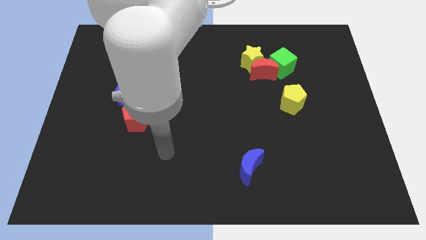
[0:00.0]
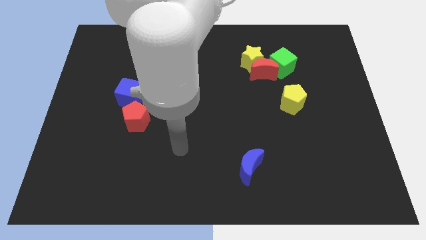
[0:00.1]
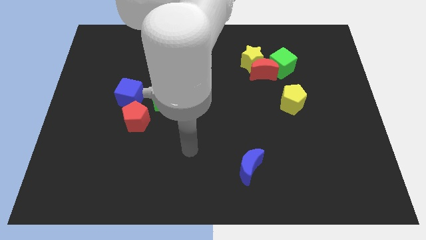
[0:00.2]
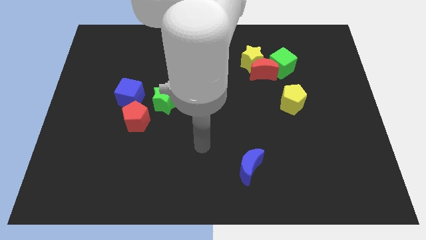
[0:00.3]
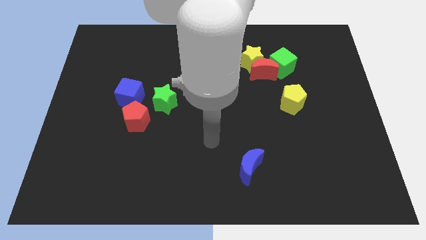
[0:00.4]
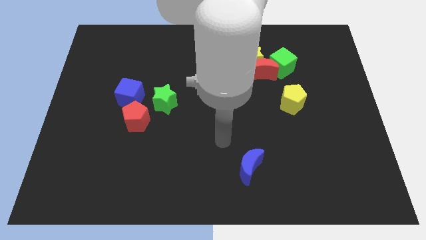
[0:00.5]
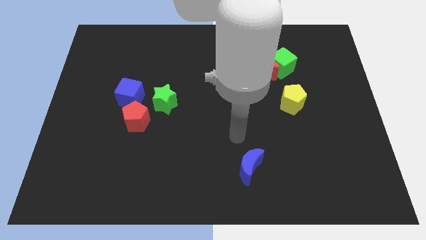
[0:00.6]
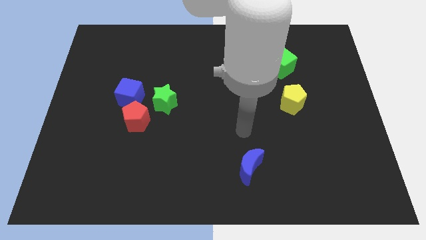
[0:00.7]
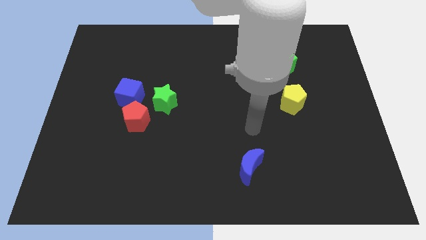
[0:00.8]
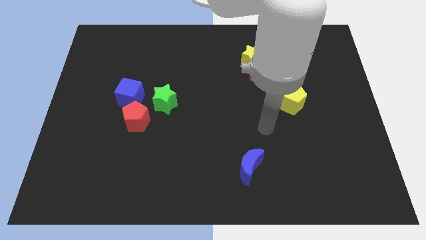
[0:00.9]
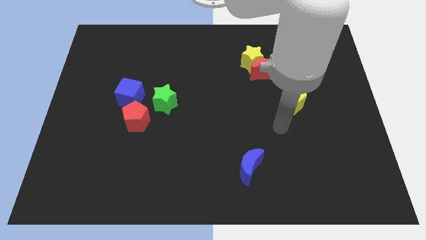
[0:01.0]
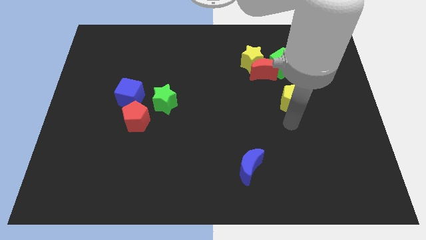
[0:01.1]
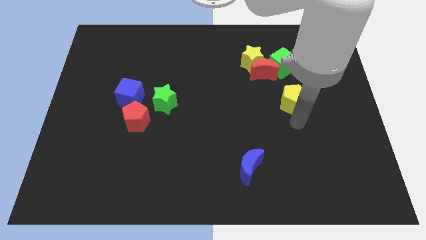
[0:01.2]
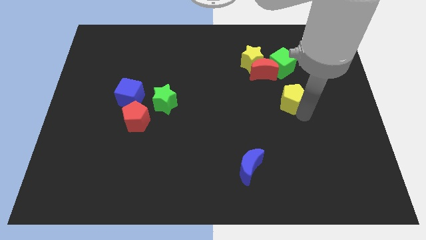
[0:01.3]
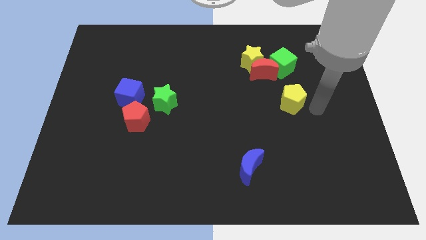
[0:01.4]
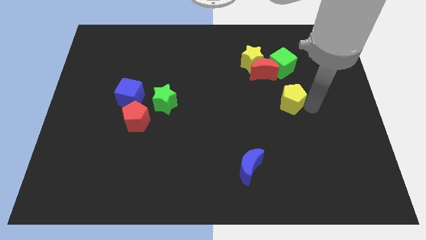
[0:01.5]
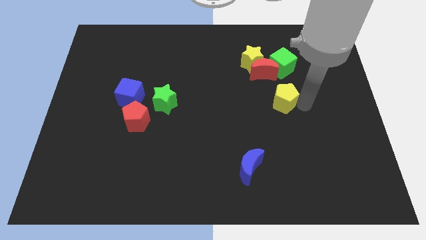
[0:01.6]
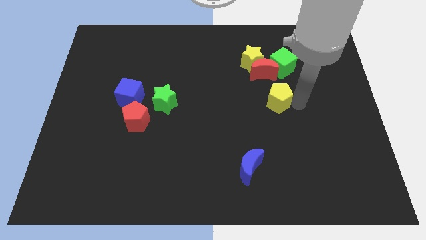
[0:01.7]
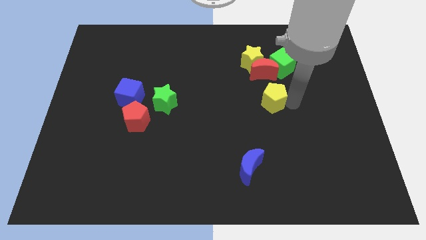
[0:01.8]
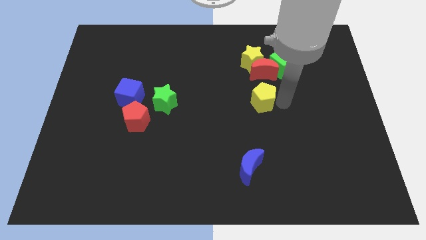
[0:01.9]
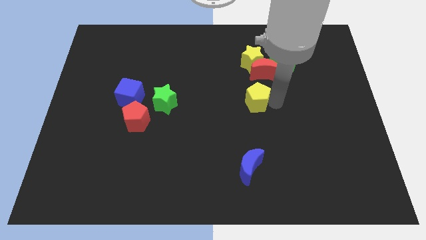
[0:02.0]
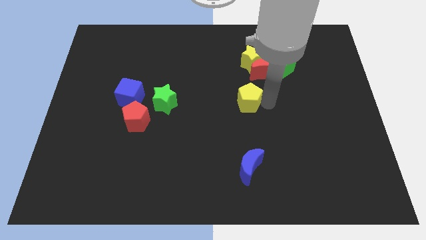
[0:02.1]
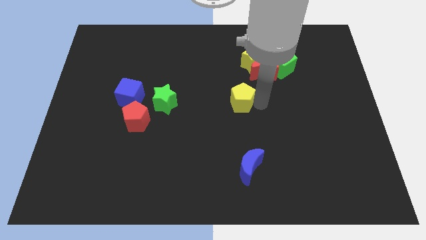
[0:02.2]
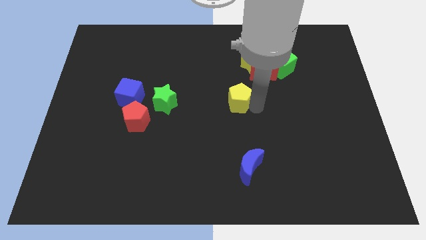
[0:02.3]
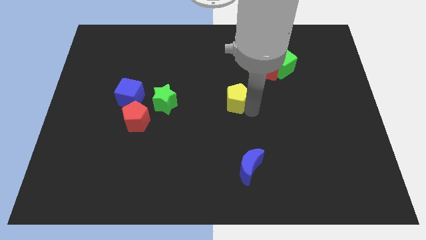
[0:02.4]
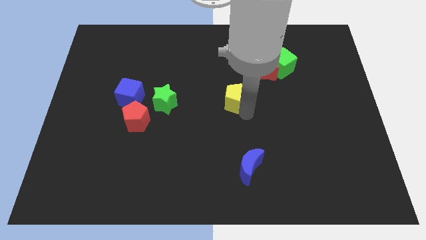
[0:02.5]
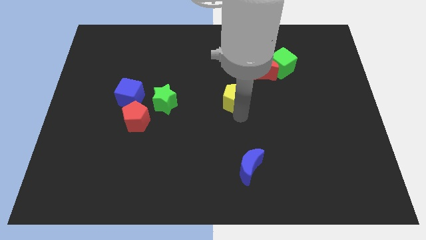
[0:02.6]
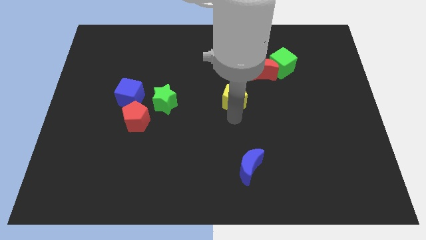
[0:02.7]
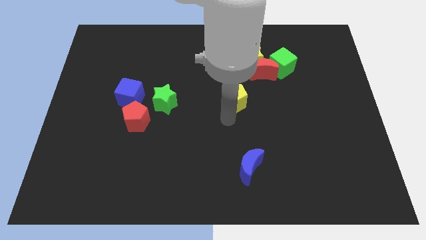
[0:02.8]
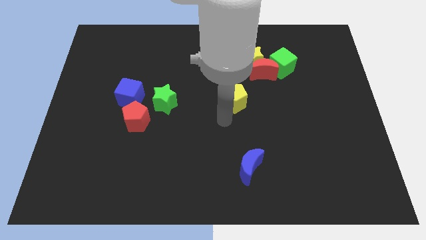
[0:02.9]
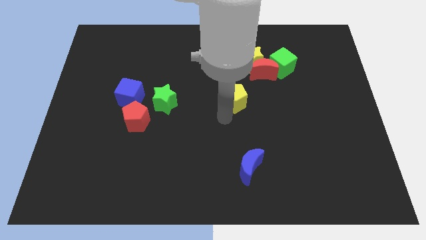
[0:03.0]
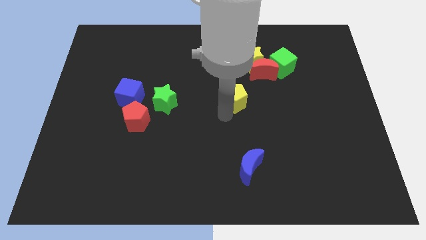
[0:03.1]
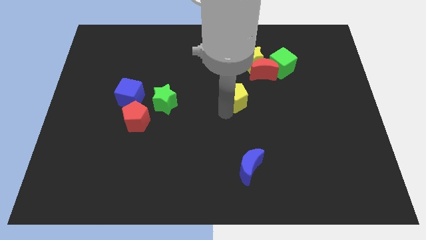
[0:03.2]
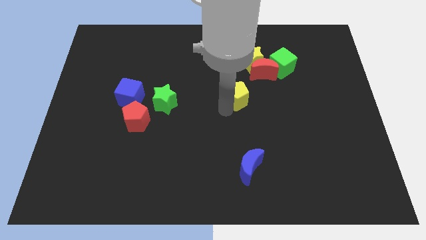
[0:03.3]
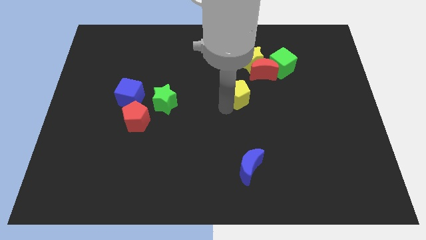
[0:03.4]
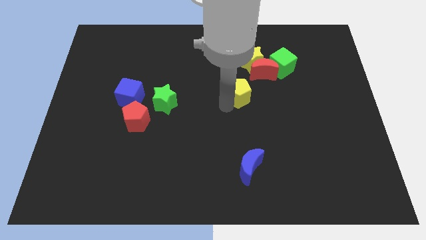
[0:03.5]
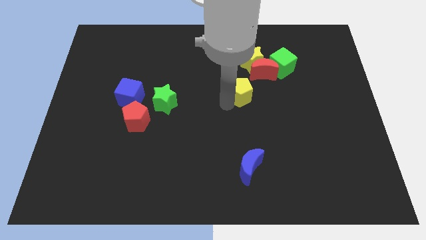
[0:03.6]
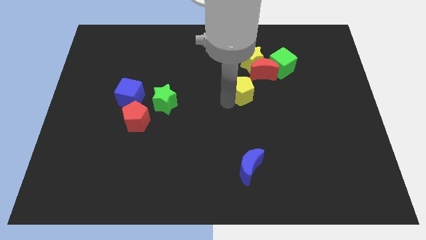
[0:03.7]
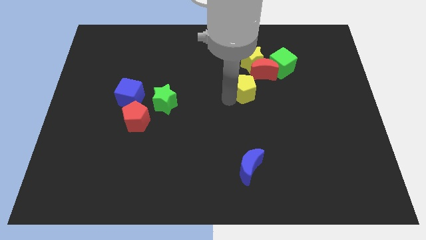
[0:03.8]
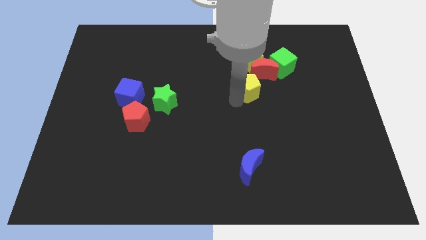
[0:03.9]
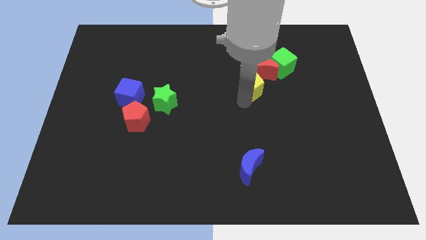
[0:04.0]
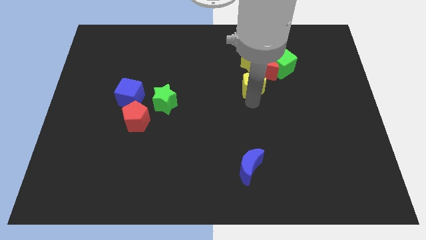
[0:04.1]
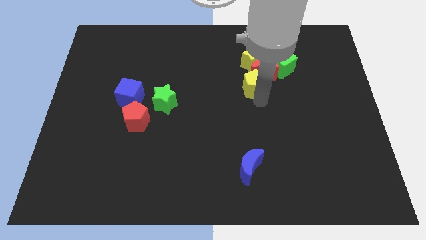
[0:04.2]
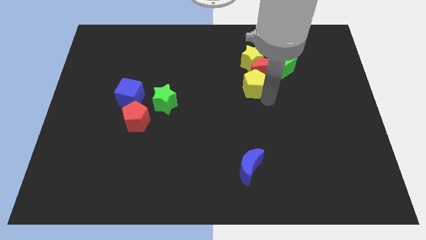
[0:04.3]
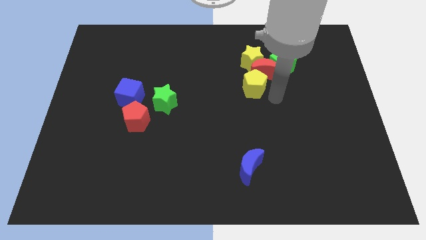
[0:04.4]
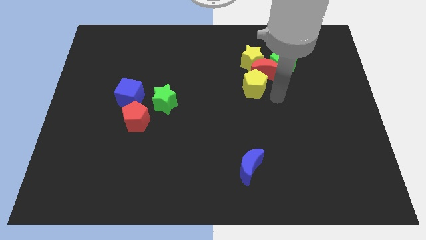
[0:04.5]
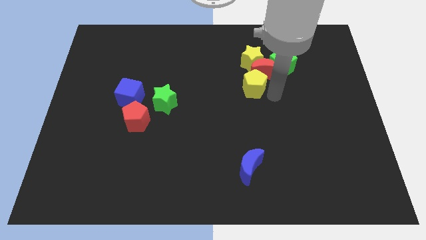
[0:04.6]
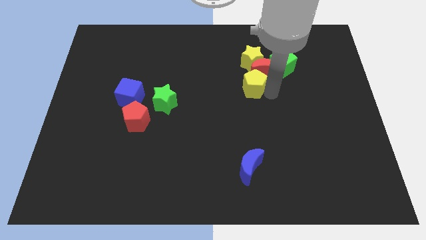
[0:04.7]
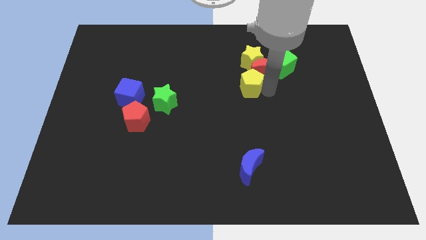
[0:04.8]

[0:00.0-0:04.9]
push the yellow pentagon left of the red moon

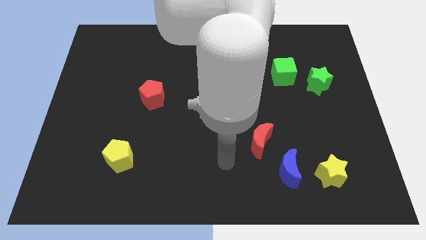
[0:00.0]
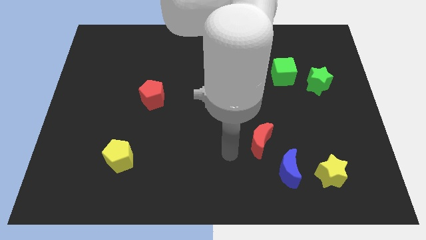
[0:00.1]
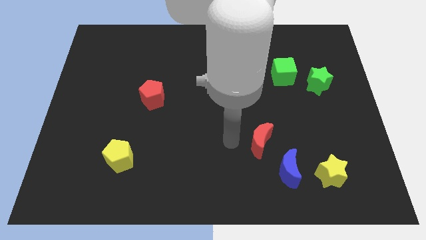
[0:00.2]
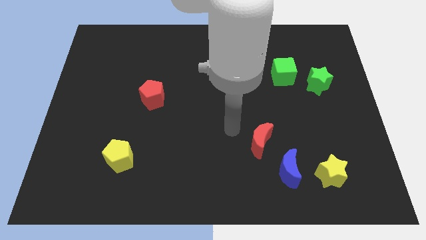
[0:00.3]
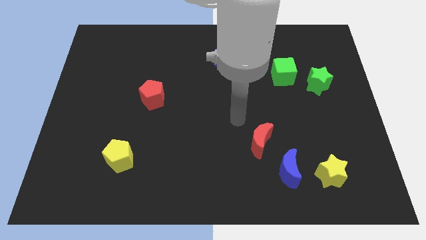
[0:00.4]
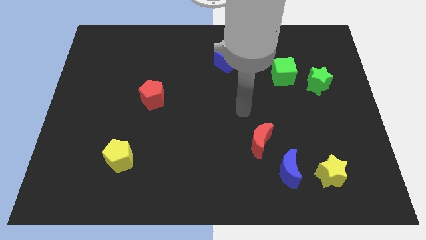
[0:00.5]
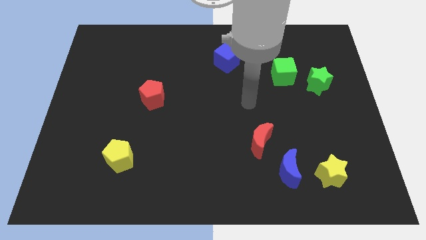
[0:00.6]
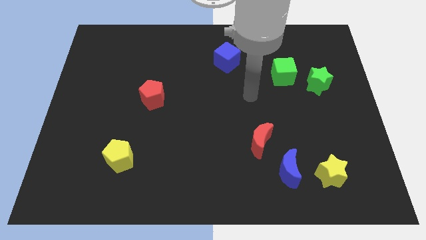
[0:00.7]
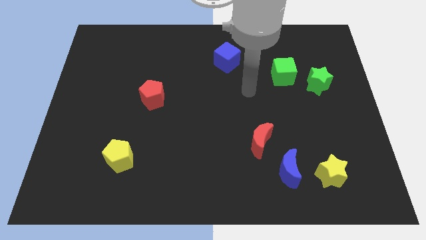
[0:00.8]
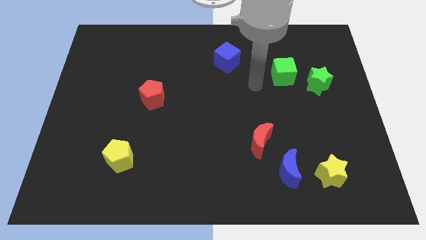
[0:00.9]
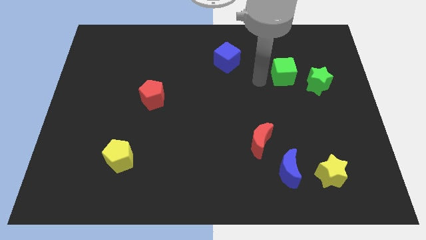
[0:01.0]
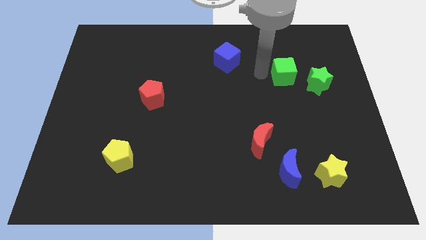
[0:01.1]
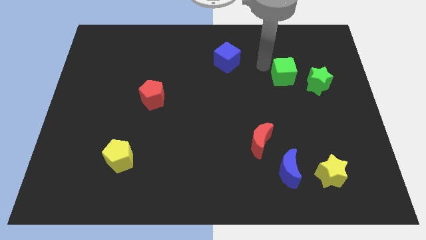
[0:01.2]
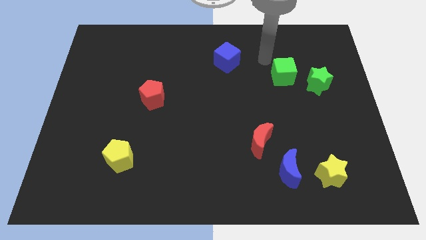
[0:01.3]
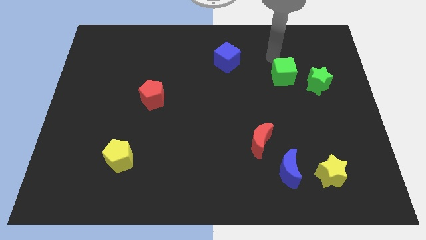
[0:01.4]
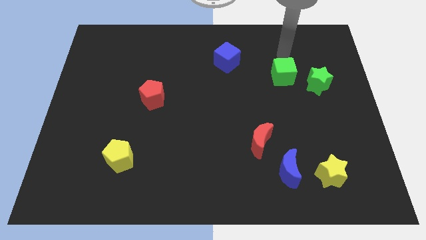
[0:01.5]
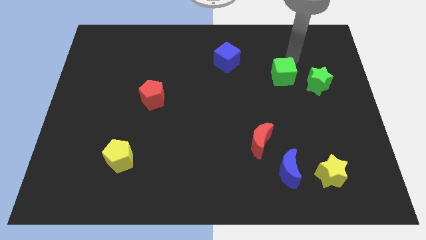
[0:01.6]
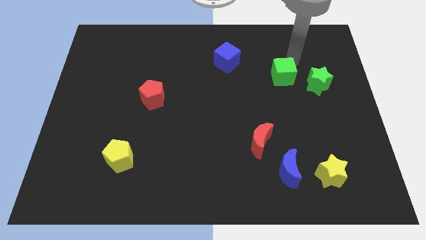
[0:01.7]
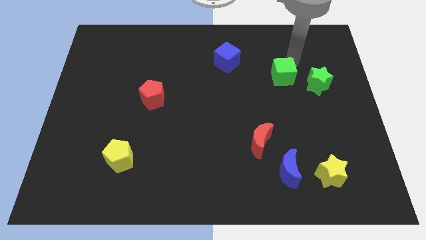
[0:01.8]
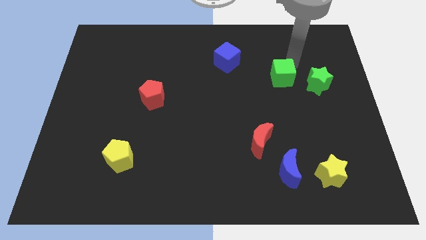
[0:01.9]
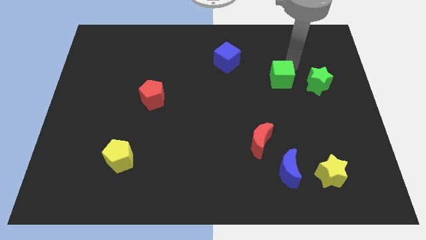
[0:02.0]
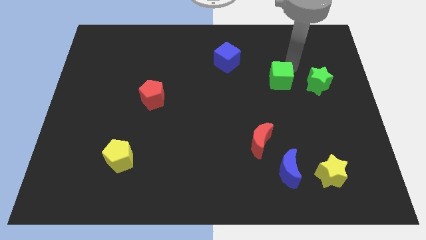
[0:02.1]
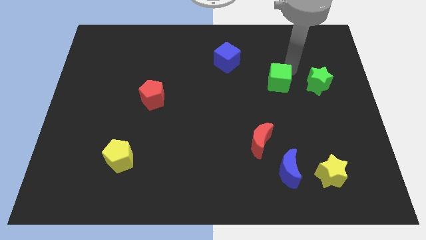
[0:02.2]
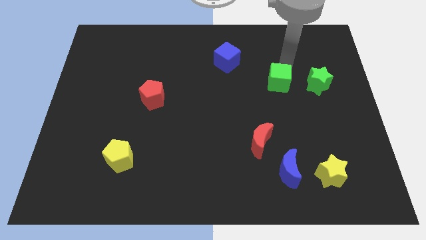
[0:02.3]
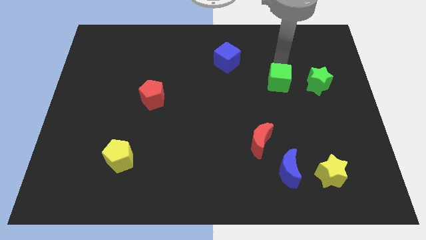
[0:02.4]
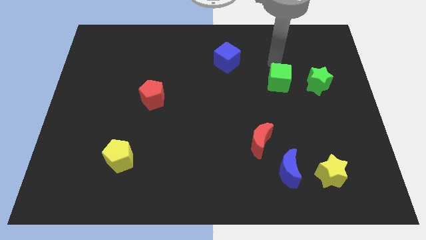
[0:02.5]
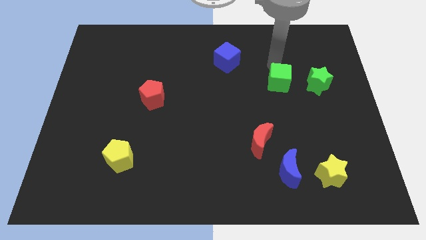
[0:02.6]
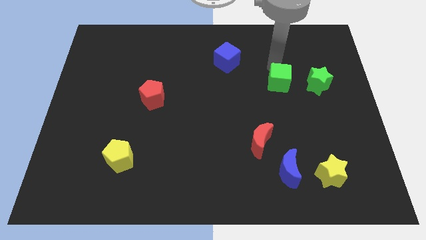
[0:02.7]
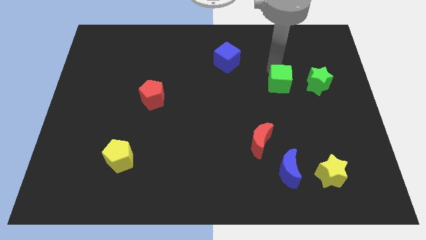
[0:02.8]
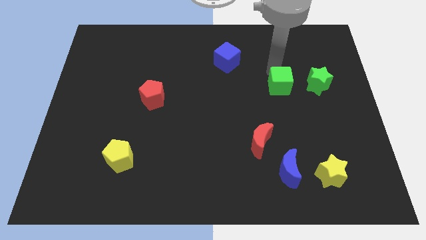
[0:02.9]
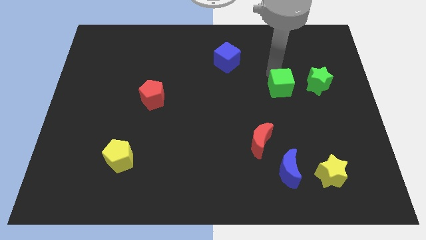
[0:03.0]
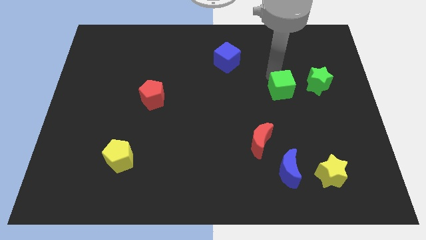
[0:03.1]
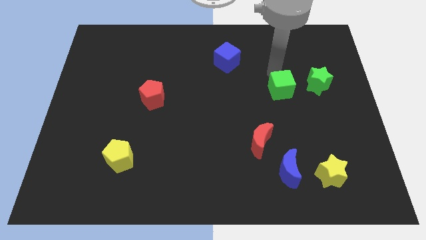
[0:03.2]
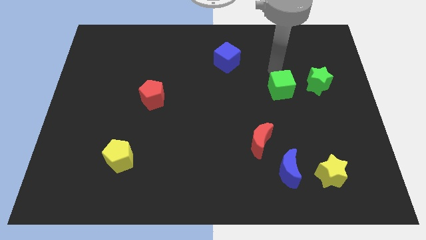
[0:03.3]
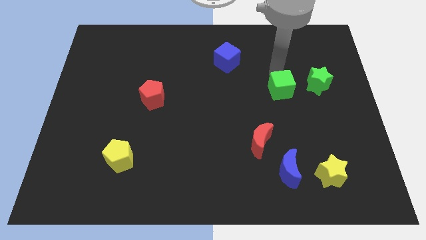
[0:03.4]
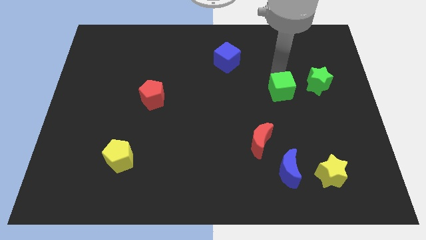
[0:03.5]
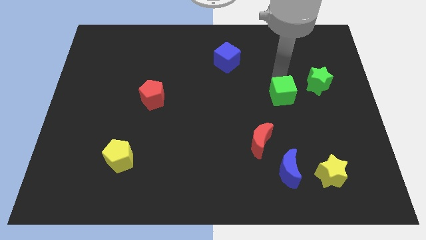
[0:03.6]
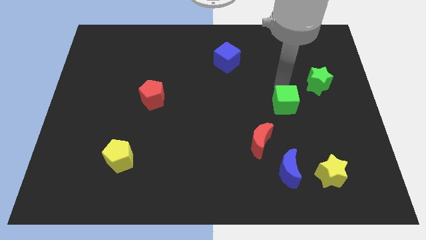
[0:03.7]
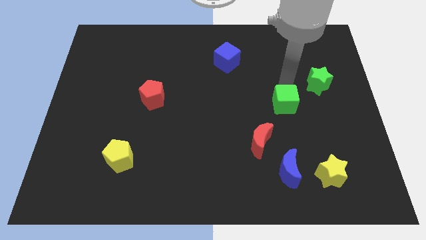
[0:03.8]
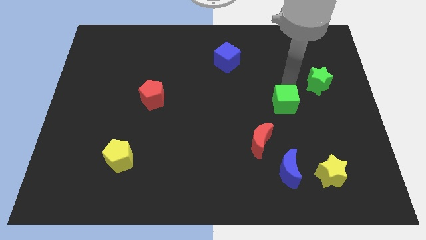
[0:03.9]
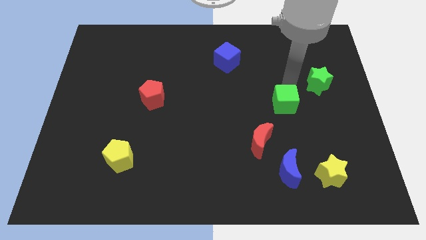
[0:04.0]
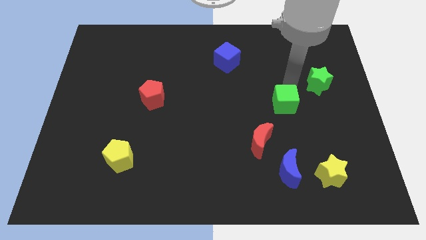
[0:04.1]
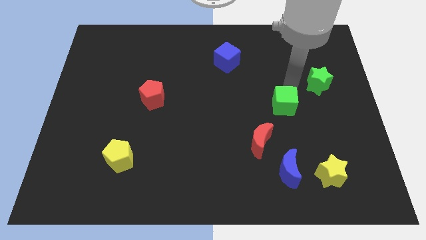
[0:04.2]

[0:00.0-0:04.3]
push the green cube to the top right of the red moon
